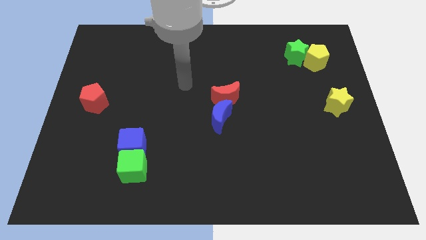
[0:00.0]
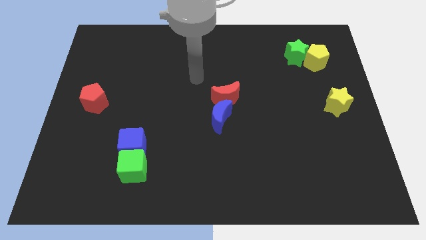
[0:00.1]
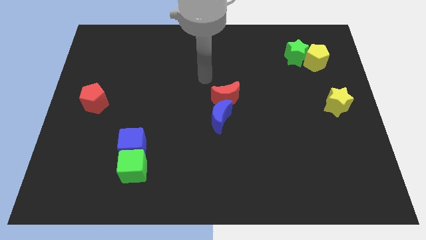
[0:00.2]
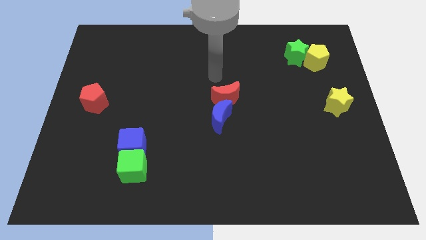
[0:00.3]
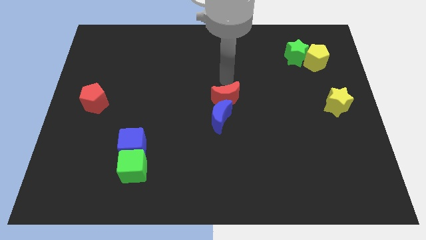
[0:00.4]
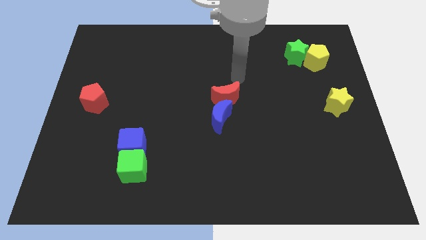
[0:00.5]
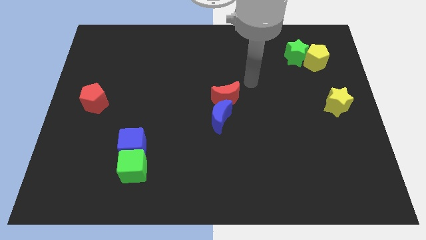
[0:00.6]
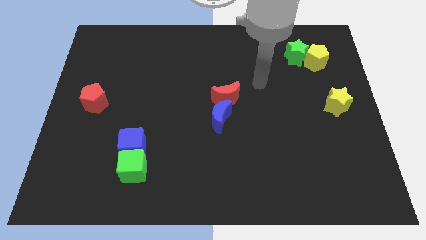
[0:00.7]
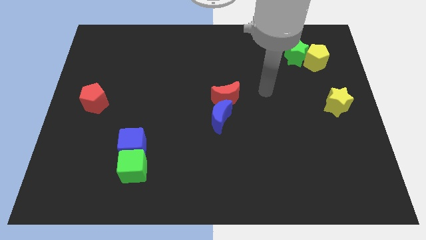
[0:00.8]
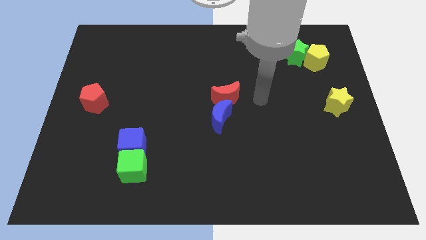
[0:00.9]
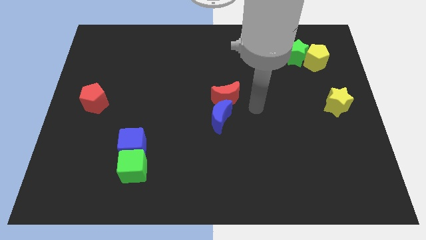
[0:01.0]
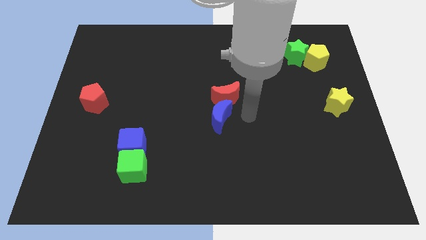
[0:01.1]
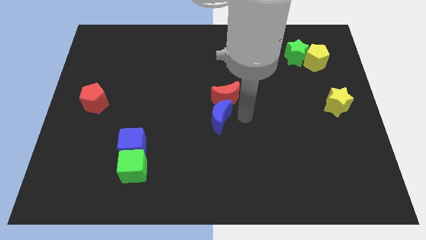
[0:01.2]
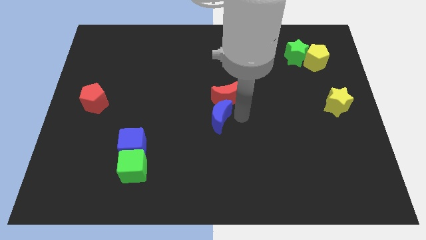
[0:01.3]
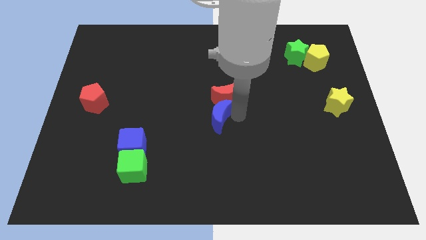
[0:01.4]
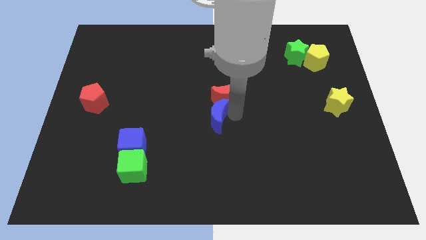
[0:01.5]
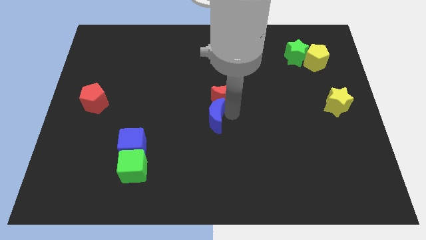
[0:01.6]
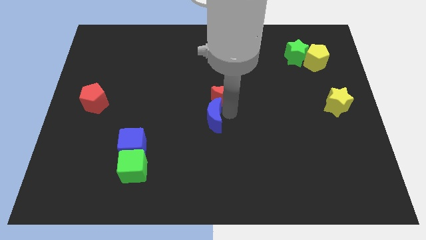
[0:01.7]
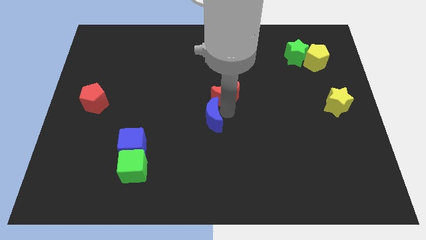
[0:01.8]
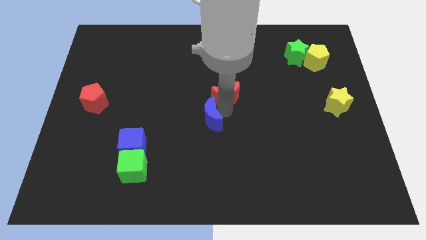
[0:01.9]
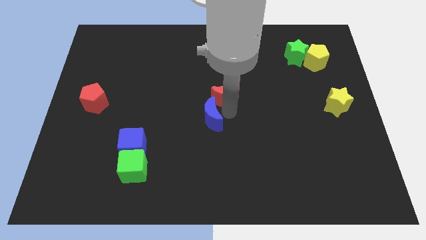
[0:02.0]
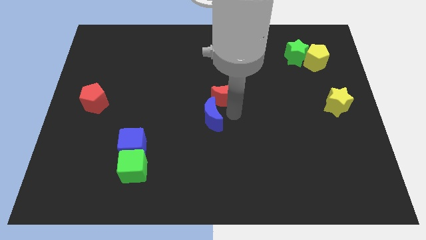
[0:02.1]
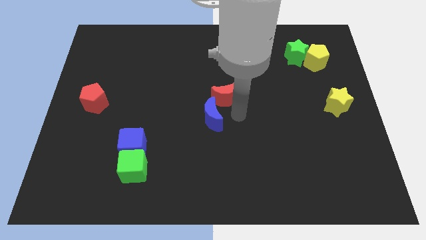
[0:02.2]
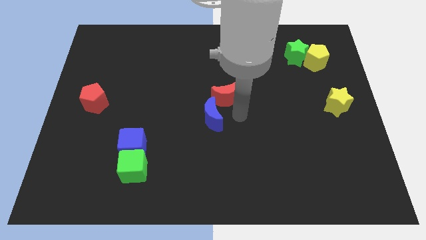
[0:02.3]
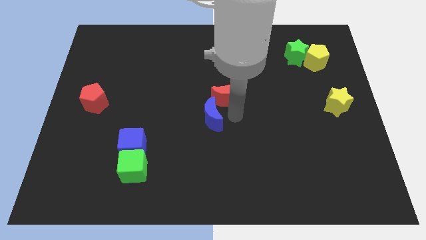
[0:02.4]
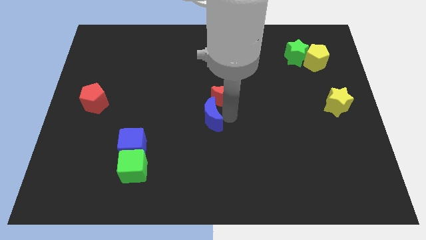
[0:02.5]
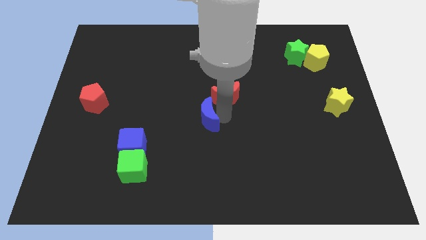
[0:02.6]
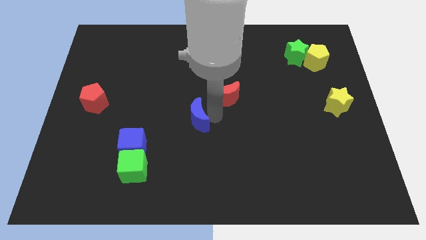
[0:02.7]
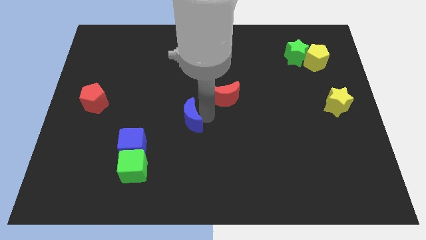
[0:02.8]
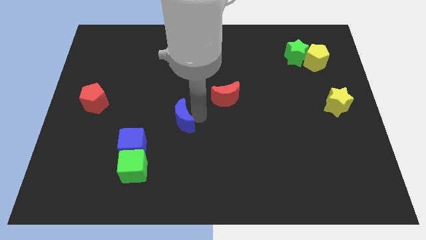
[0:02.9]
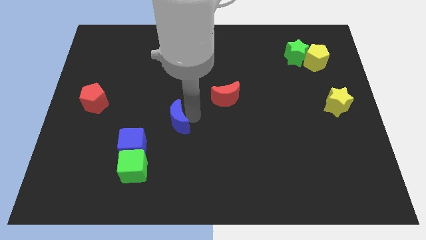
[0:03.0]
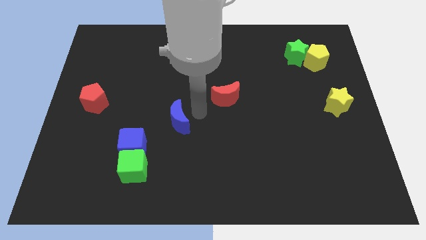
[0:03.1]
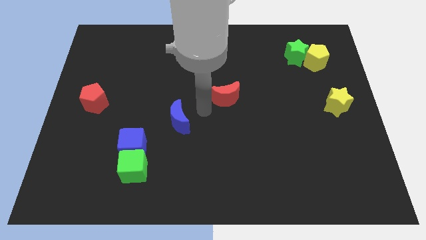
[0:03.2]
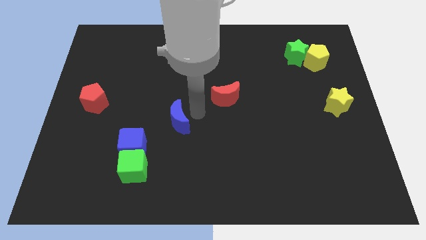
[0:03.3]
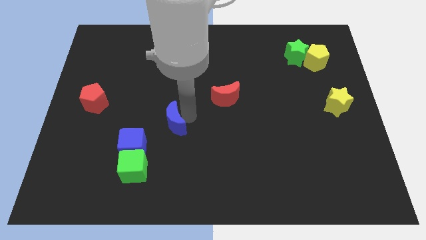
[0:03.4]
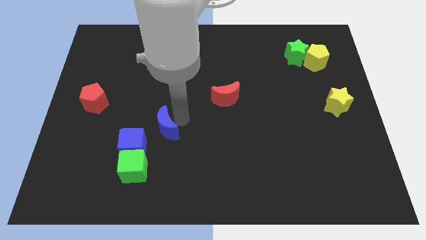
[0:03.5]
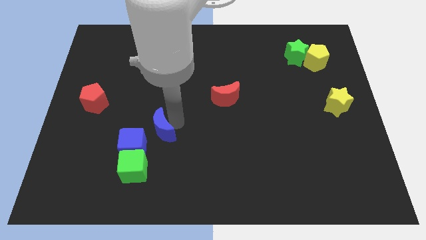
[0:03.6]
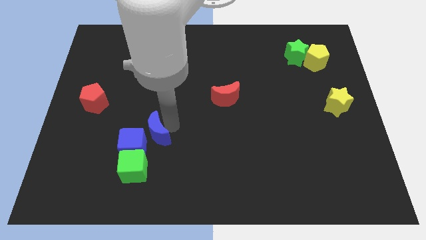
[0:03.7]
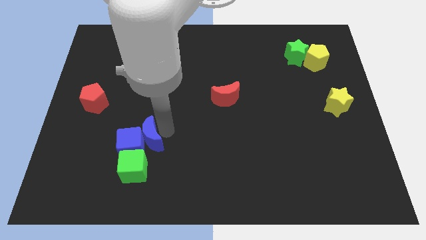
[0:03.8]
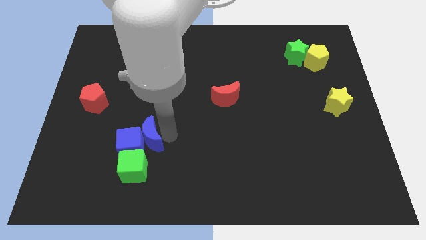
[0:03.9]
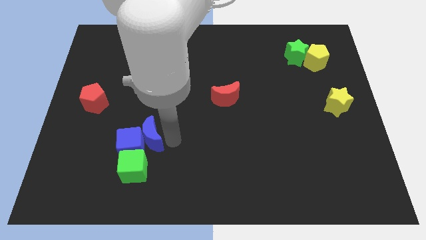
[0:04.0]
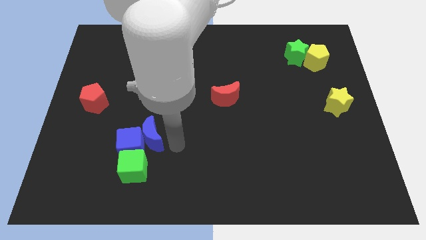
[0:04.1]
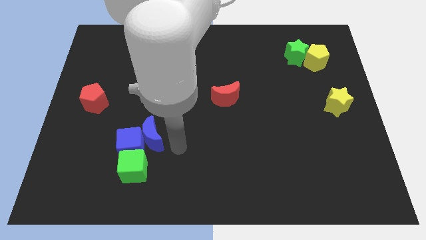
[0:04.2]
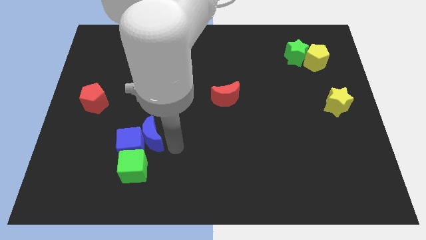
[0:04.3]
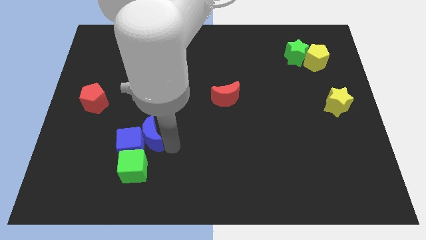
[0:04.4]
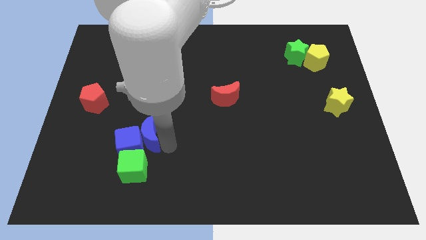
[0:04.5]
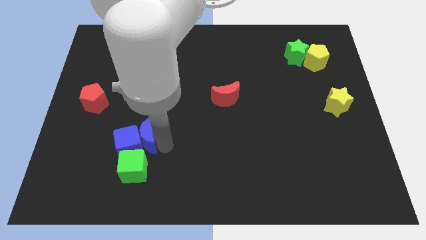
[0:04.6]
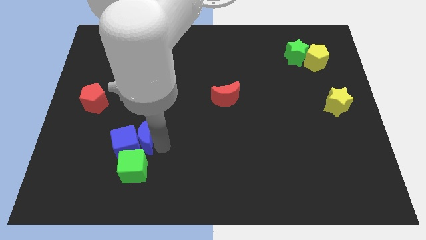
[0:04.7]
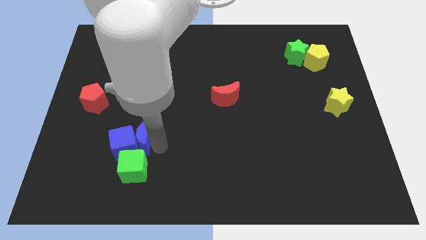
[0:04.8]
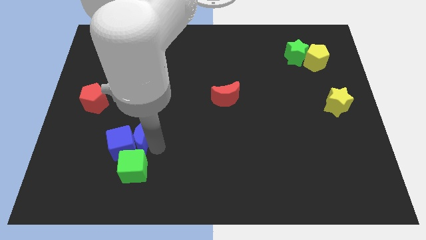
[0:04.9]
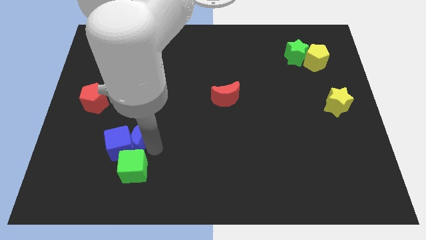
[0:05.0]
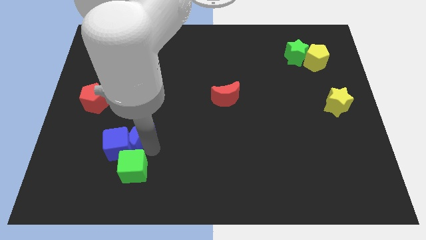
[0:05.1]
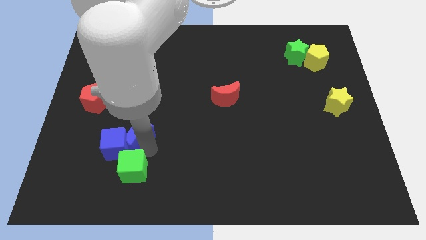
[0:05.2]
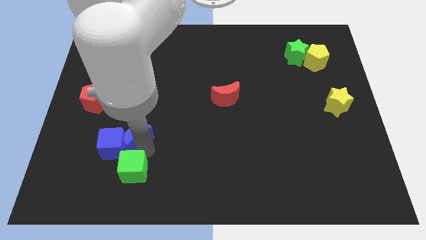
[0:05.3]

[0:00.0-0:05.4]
move the blue moon to the top left side of the green cube

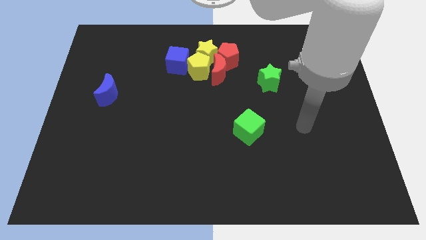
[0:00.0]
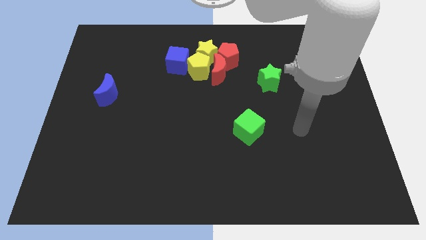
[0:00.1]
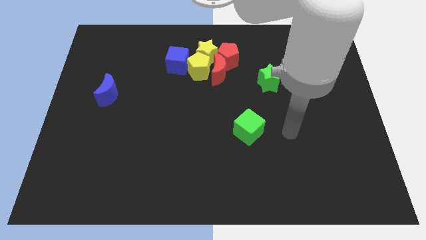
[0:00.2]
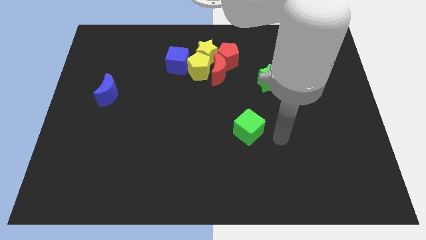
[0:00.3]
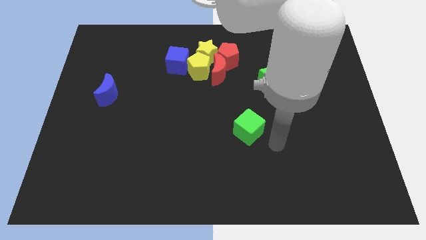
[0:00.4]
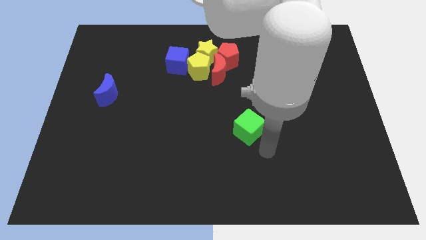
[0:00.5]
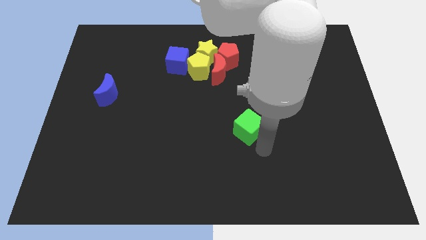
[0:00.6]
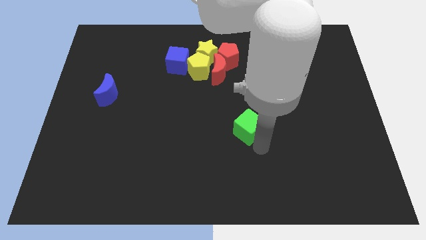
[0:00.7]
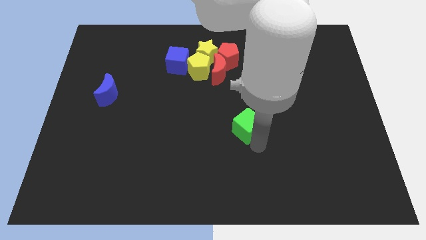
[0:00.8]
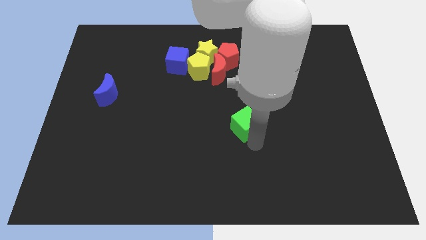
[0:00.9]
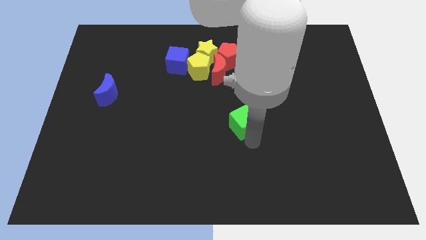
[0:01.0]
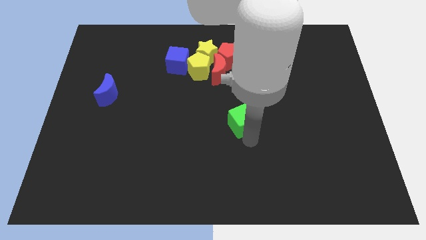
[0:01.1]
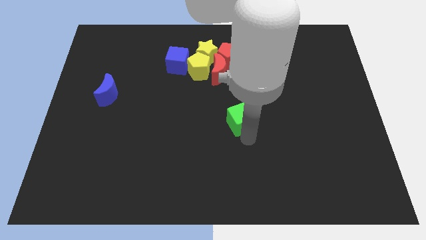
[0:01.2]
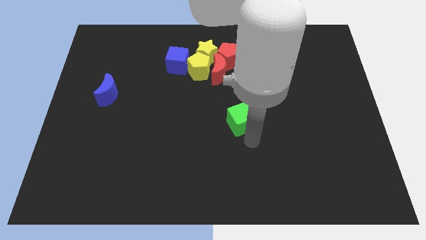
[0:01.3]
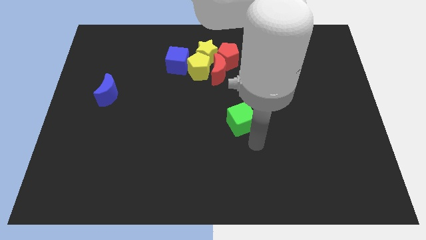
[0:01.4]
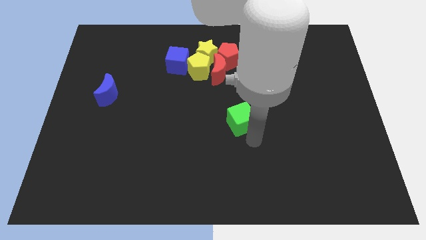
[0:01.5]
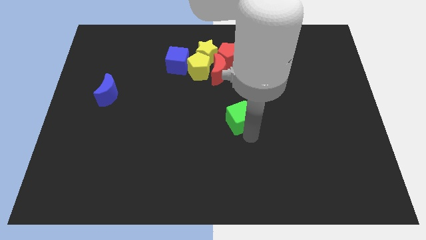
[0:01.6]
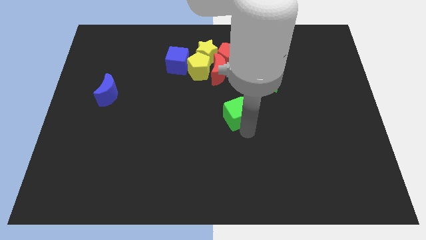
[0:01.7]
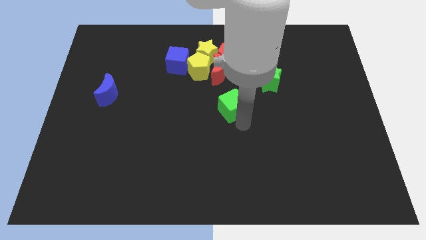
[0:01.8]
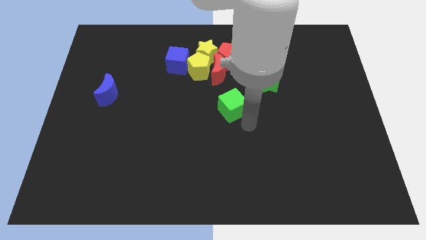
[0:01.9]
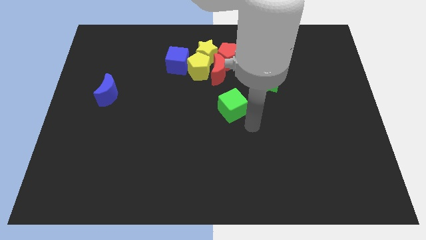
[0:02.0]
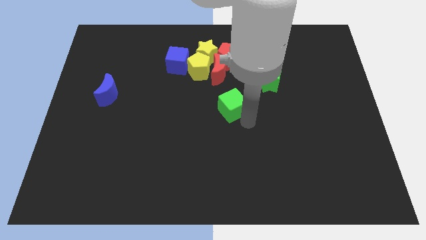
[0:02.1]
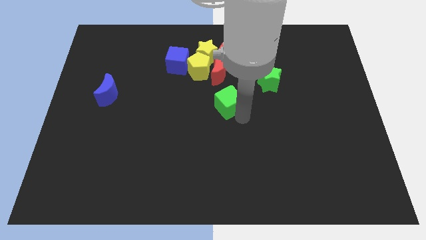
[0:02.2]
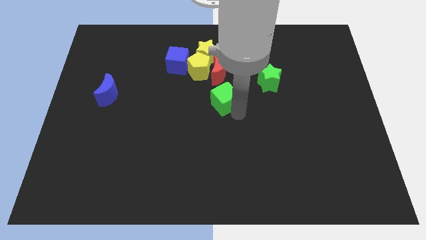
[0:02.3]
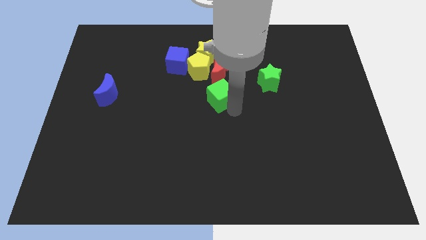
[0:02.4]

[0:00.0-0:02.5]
push the green cube below the yellow star
